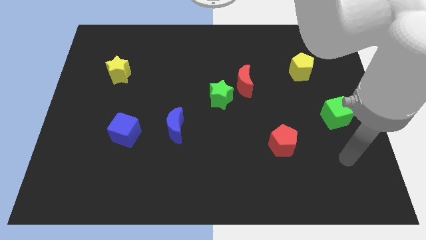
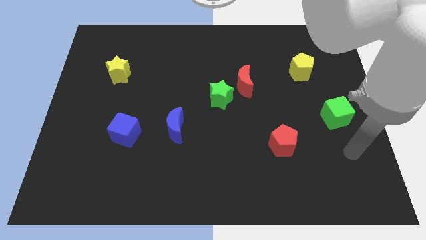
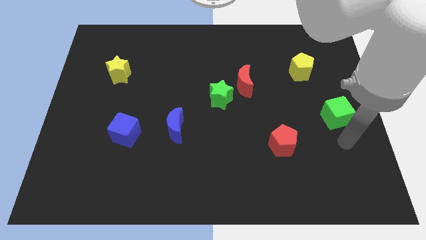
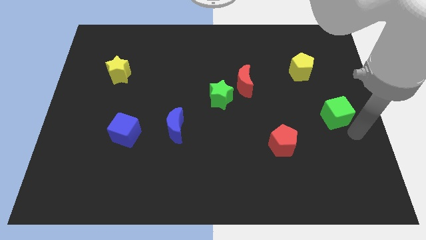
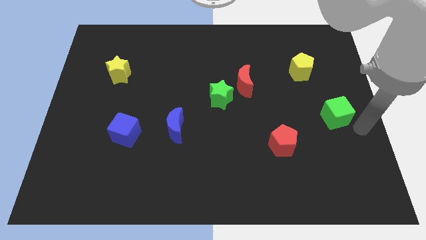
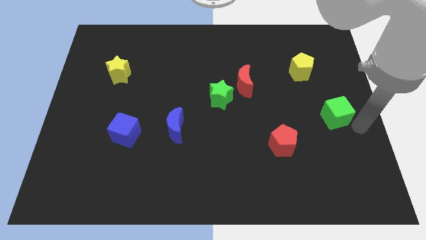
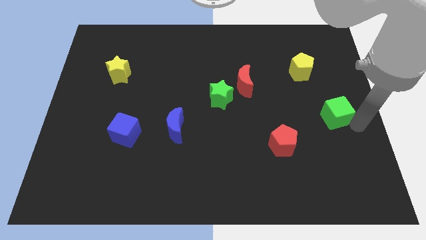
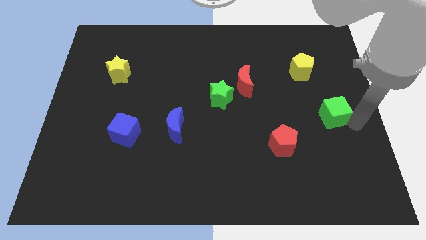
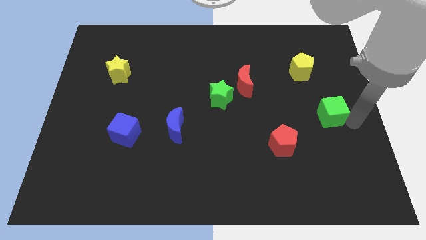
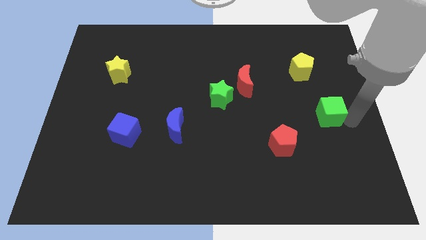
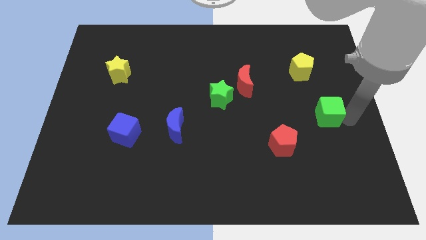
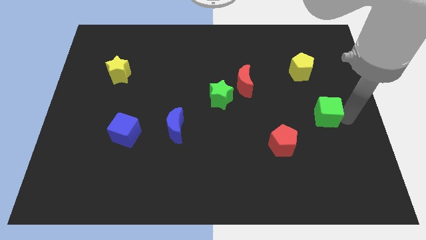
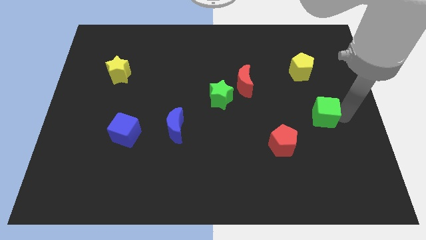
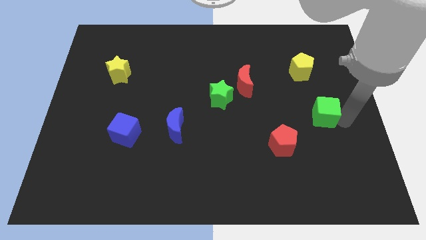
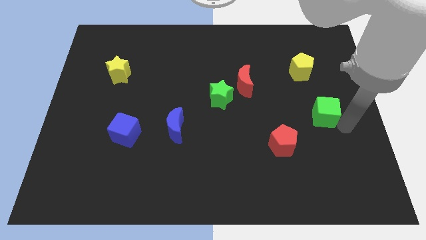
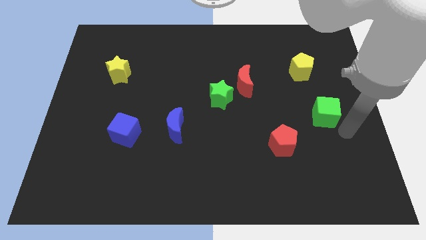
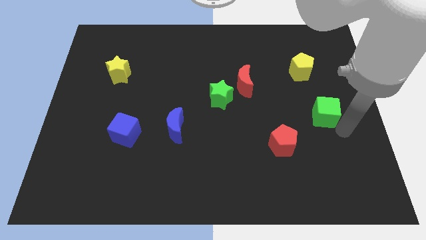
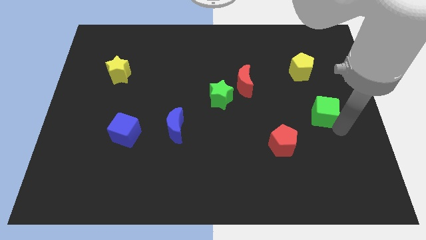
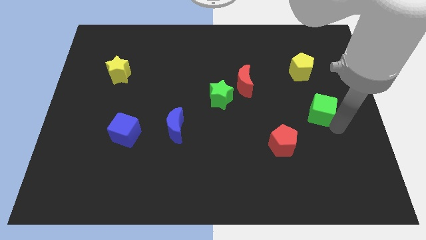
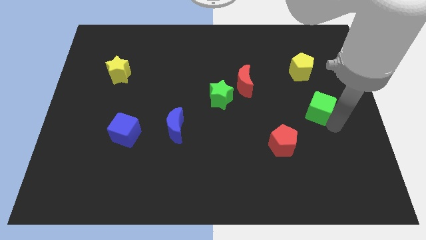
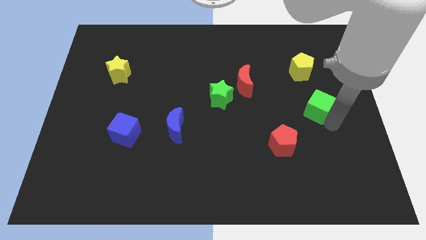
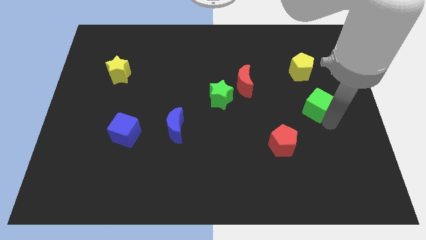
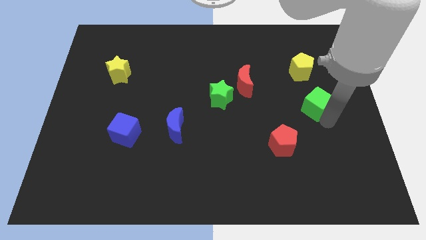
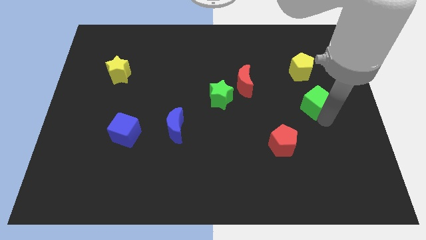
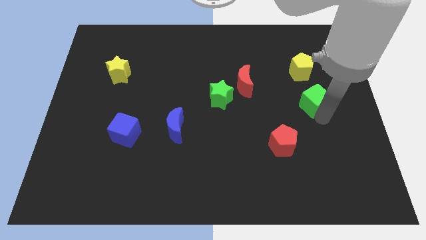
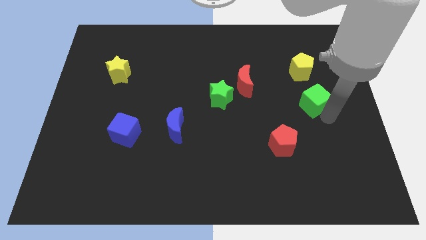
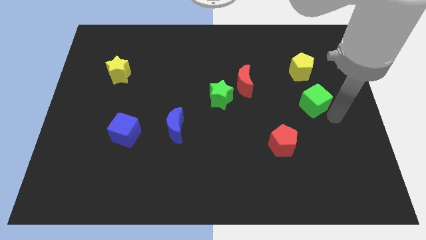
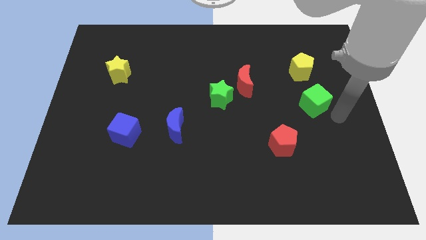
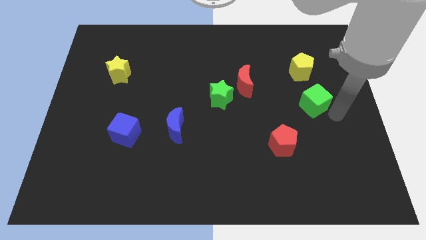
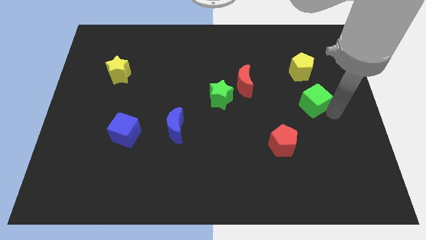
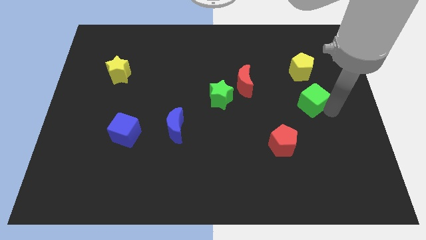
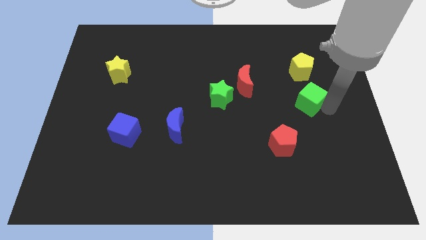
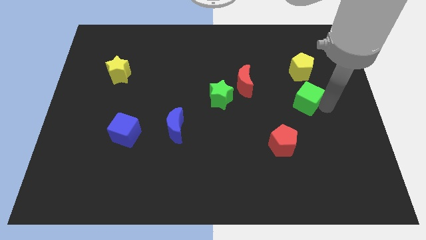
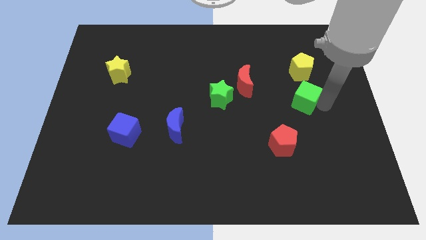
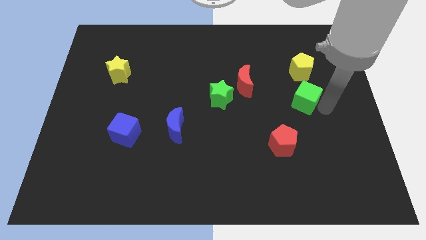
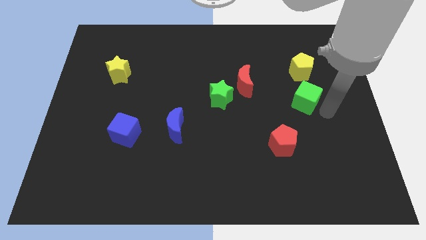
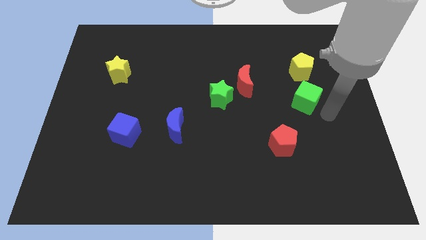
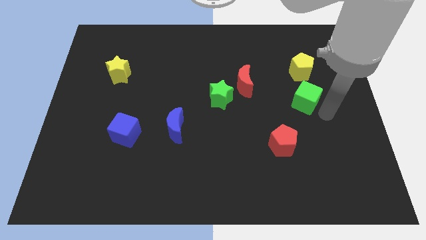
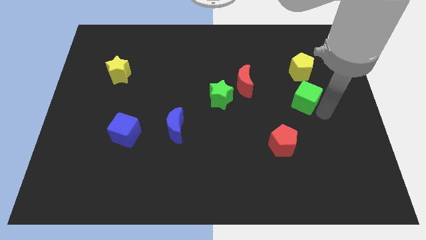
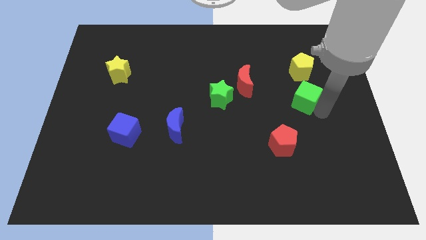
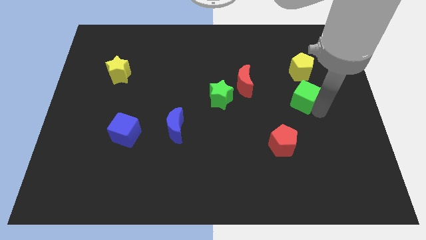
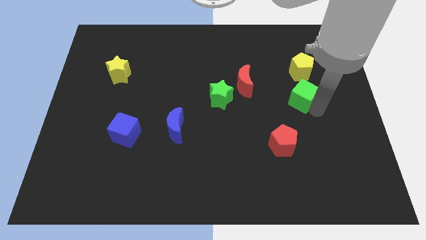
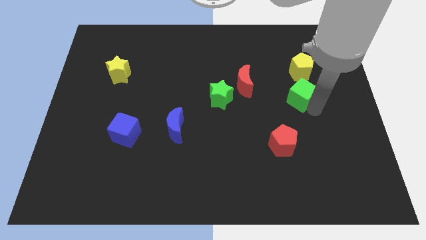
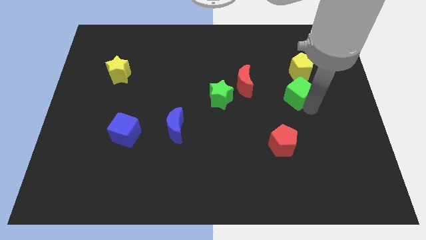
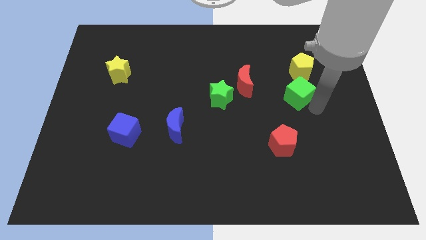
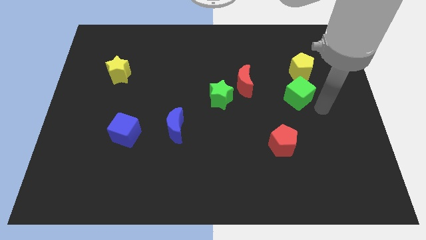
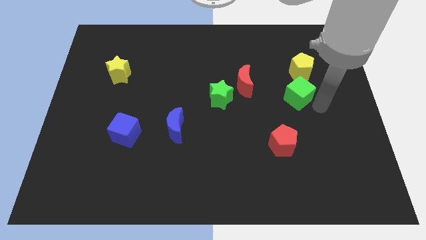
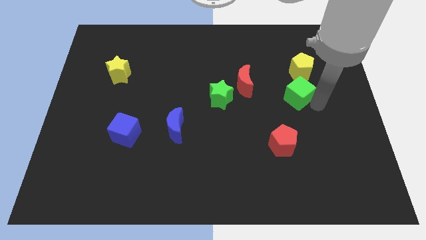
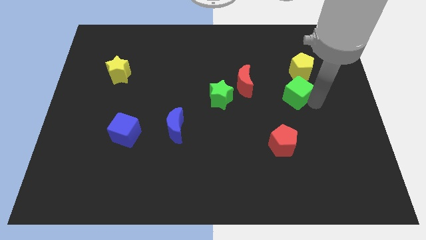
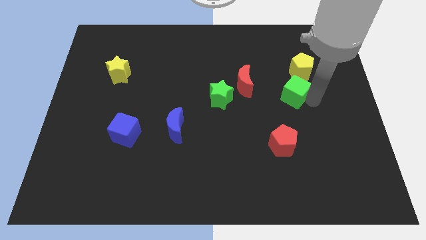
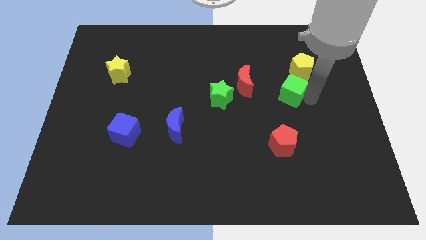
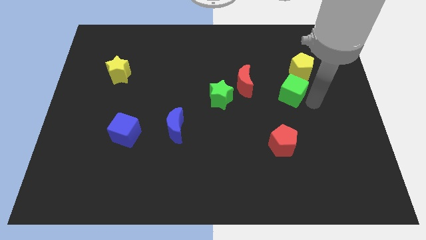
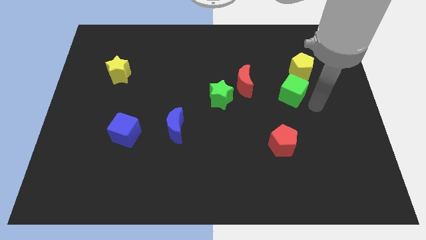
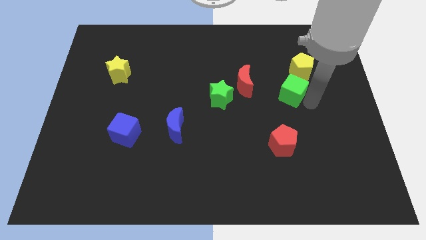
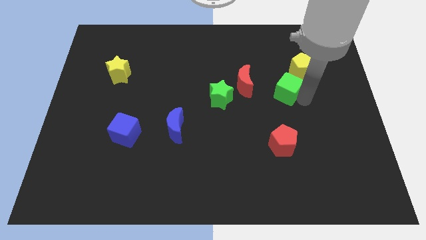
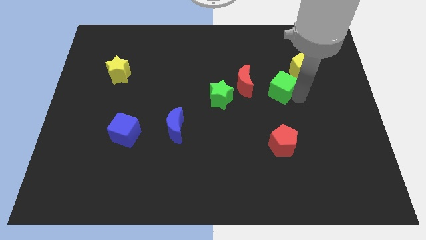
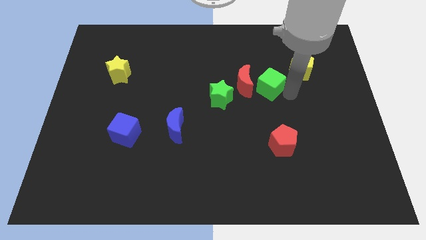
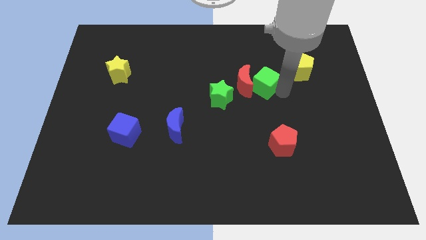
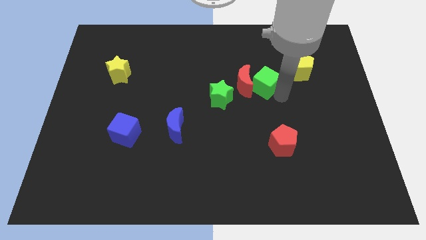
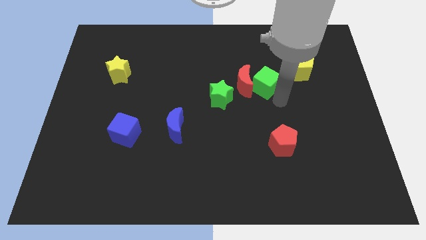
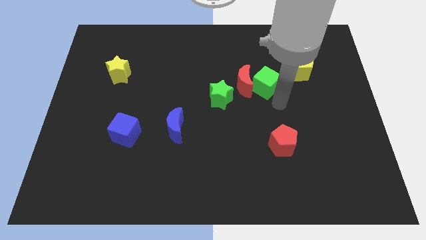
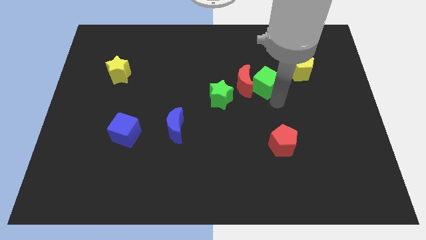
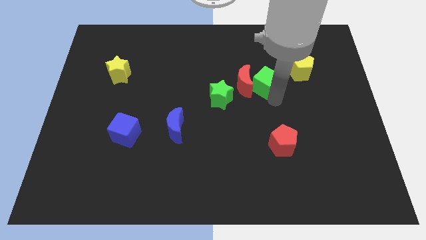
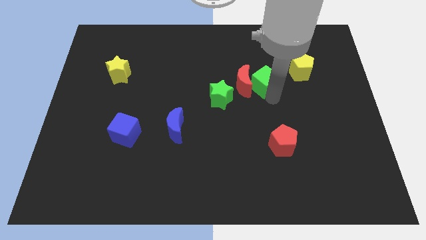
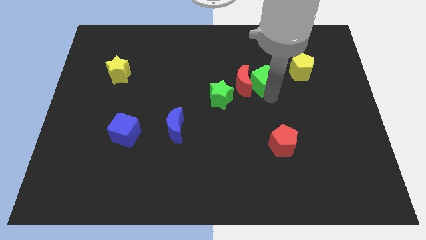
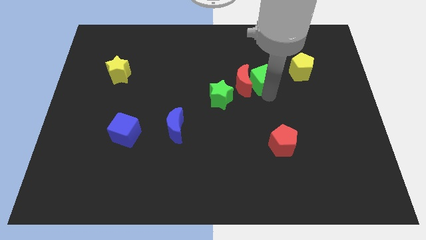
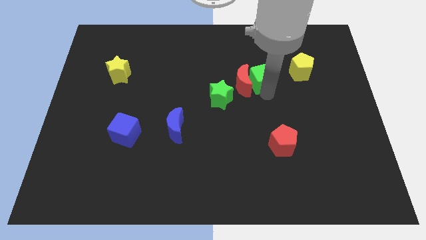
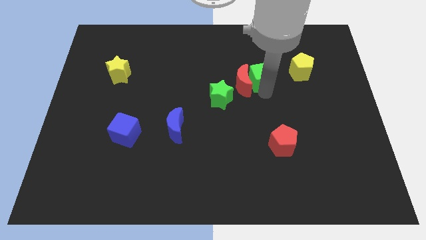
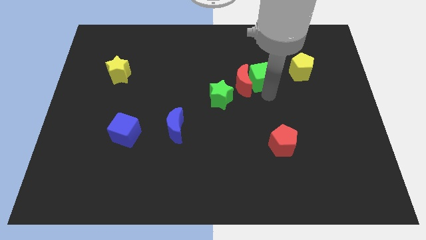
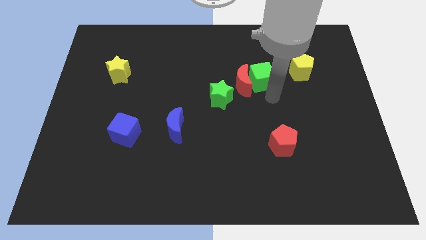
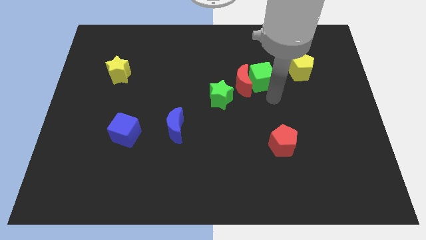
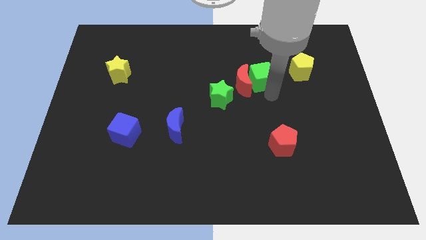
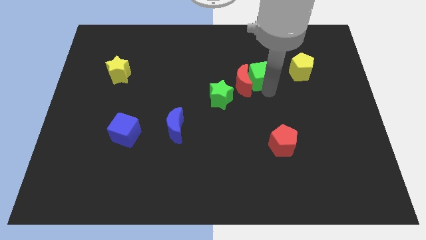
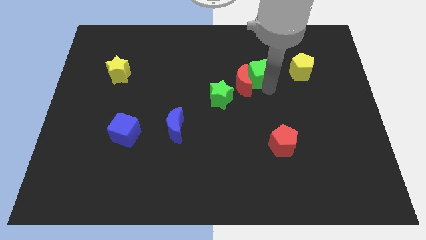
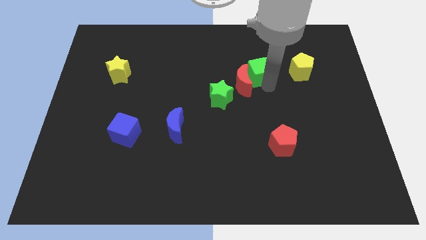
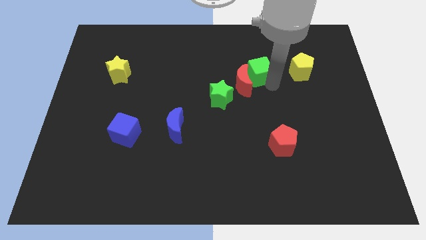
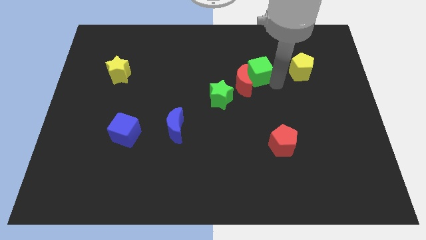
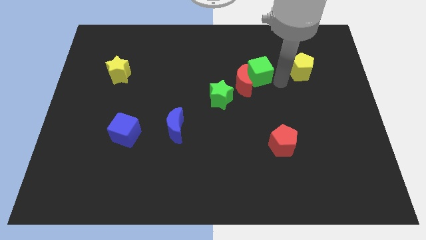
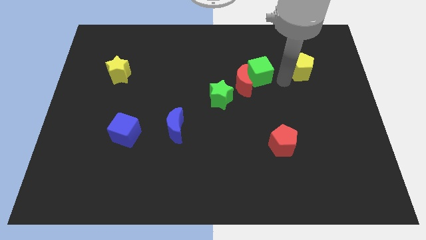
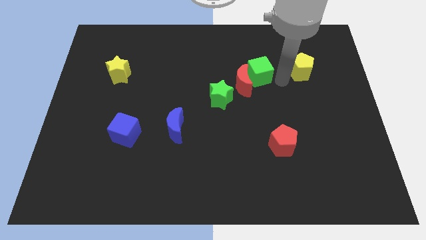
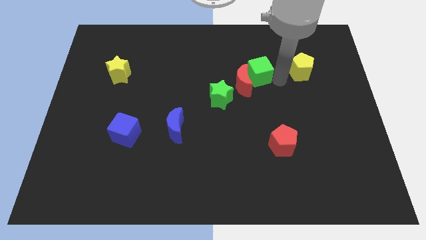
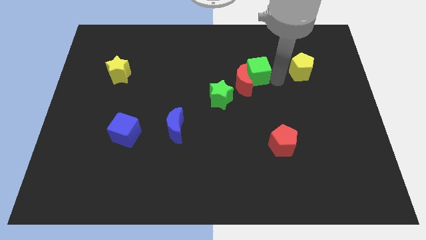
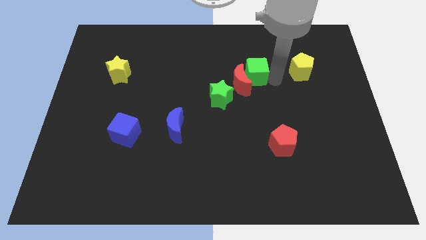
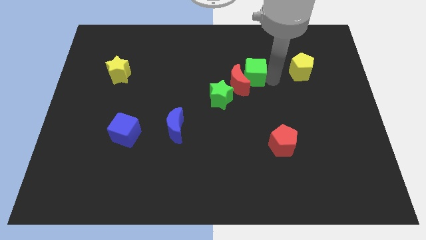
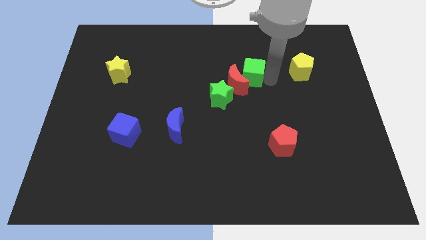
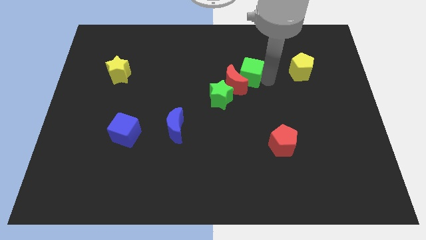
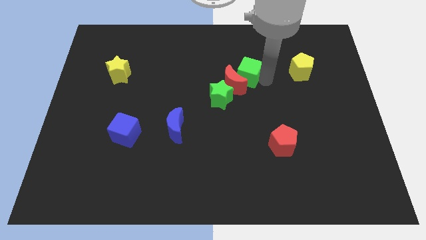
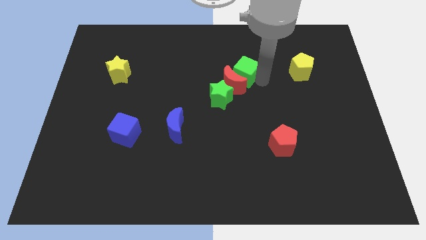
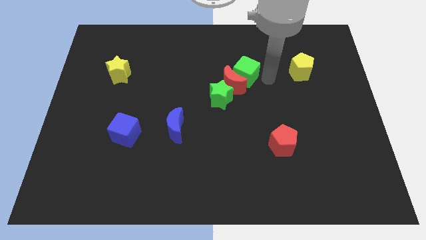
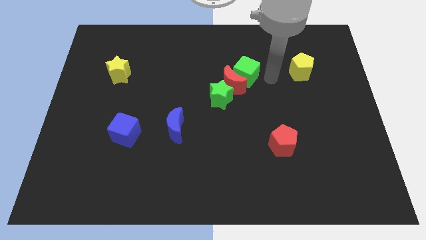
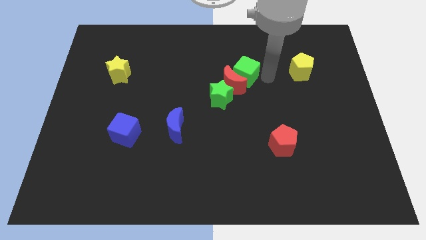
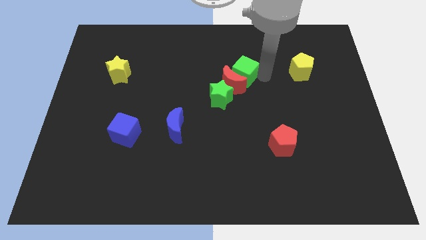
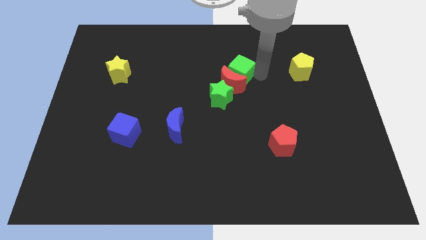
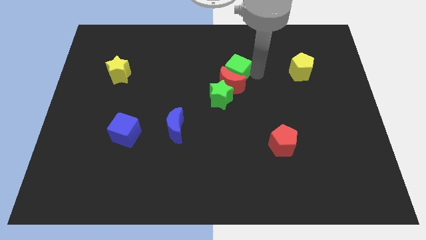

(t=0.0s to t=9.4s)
slide the green cube diagonally up and to the left of the red moon
